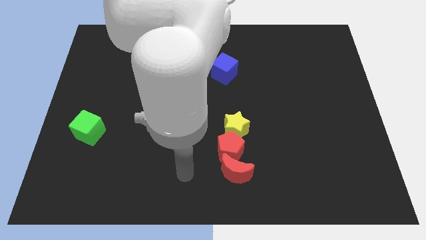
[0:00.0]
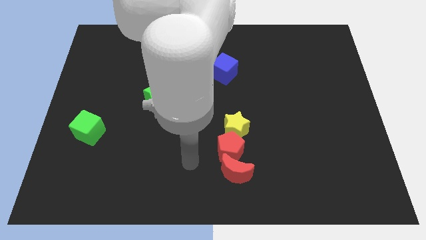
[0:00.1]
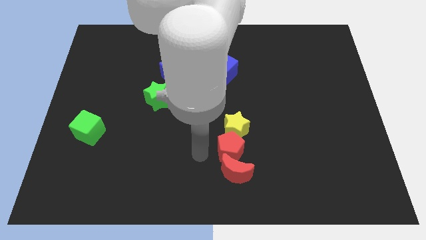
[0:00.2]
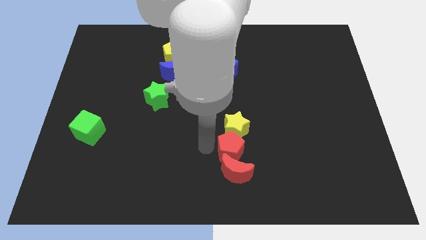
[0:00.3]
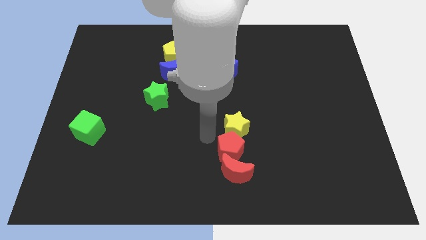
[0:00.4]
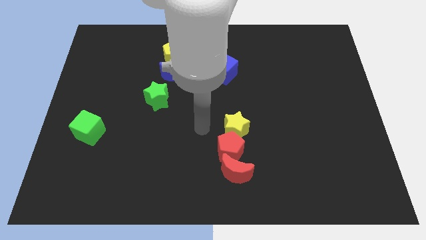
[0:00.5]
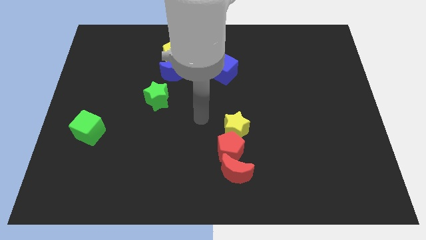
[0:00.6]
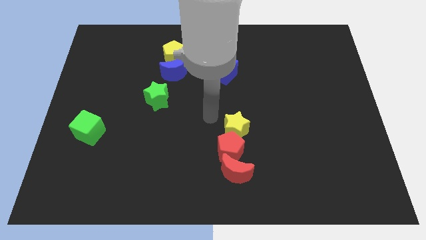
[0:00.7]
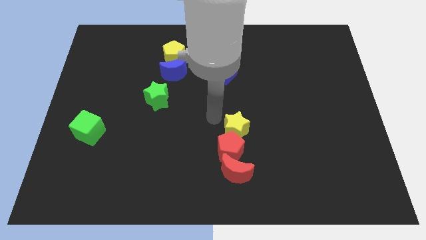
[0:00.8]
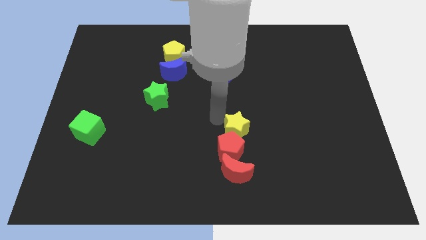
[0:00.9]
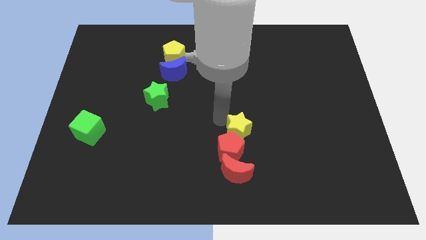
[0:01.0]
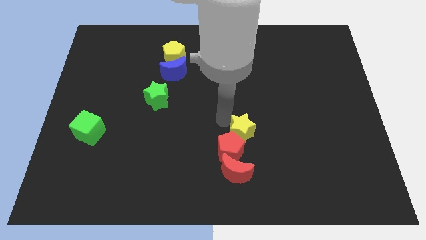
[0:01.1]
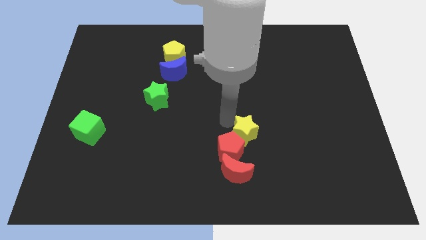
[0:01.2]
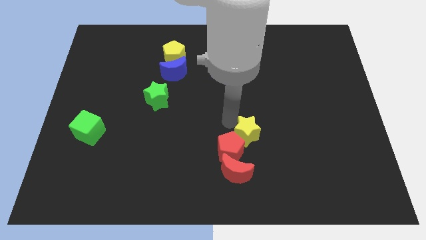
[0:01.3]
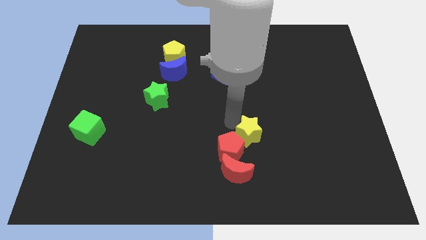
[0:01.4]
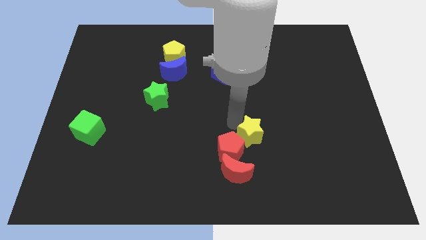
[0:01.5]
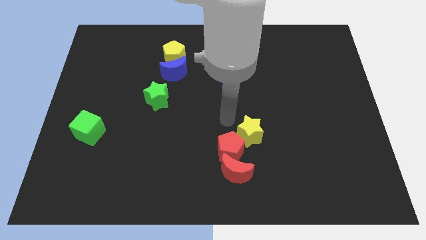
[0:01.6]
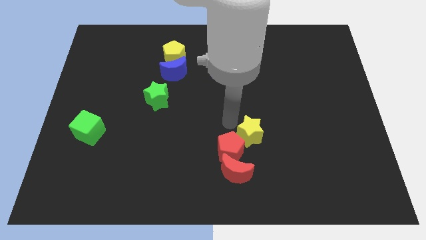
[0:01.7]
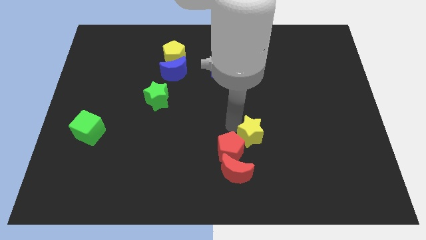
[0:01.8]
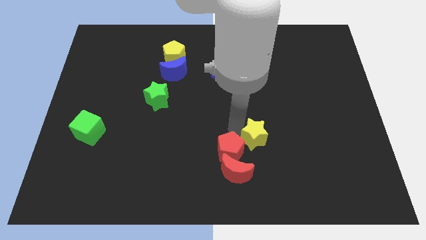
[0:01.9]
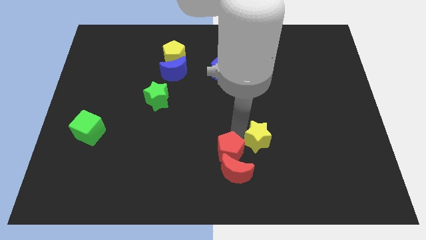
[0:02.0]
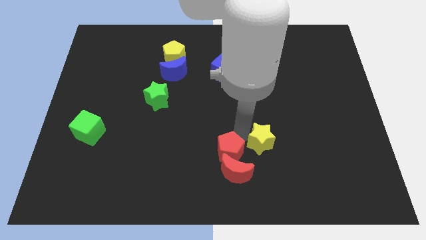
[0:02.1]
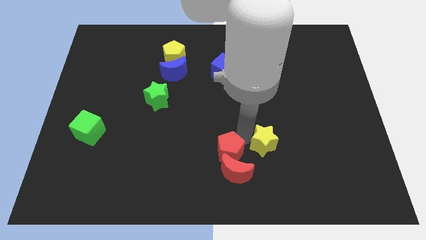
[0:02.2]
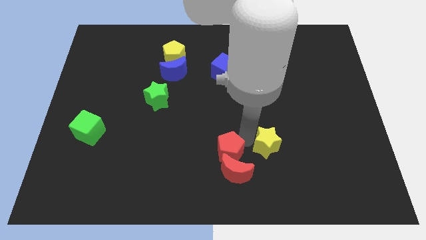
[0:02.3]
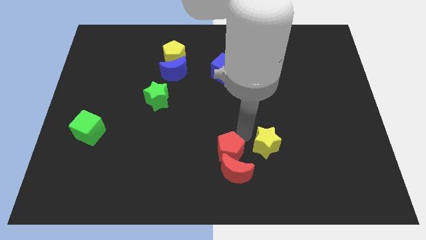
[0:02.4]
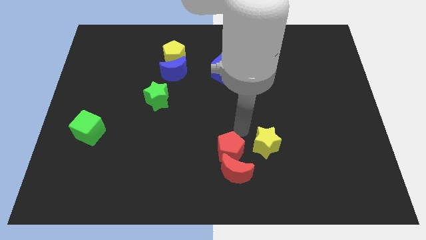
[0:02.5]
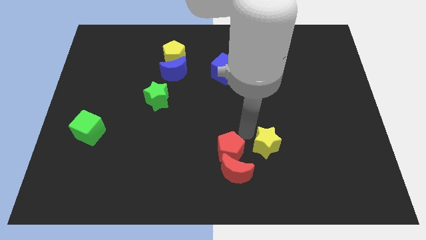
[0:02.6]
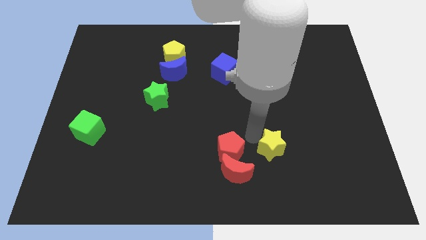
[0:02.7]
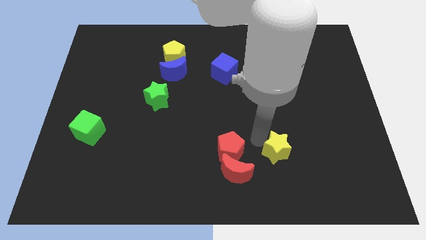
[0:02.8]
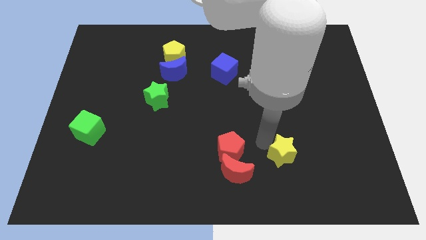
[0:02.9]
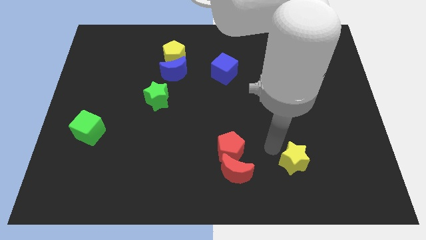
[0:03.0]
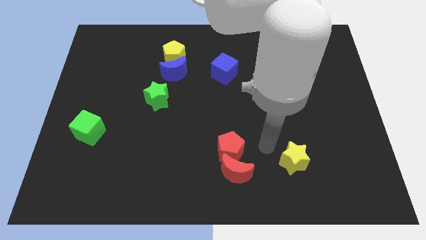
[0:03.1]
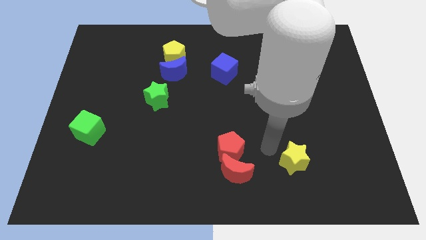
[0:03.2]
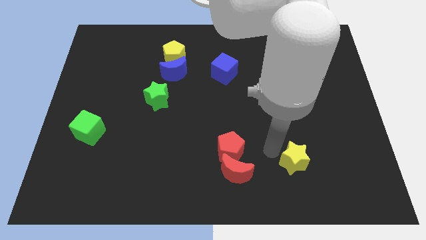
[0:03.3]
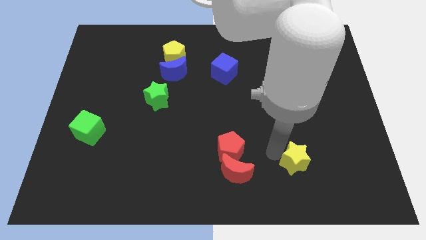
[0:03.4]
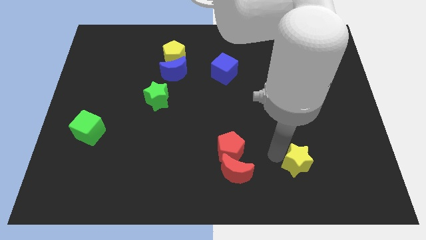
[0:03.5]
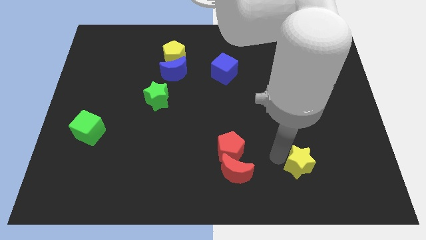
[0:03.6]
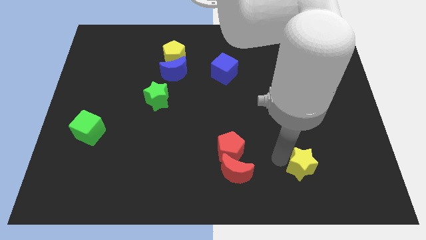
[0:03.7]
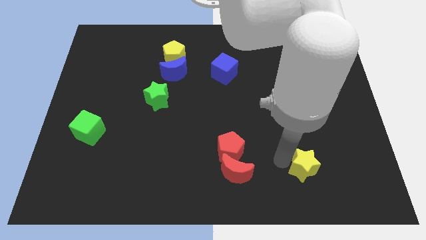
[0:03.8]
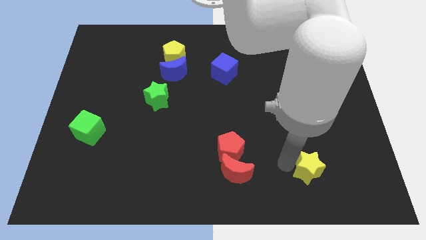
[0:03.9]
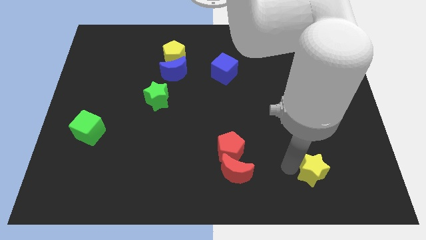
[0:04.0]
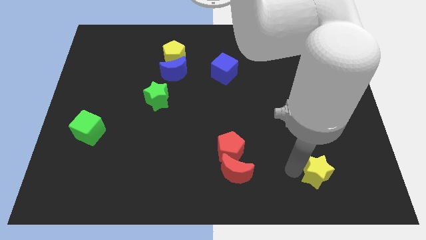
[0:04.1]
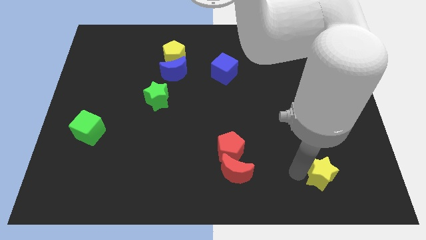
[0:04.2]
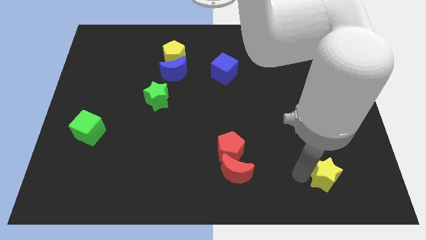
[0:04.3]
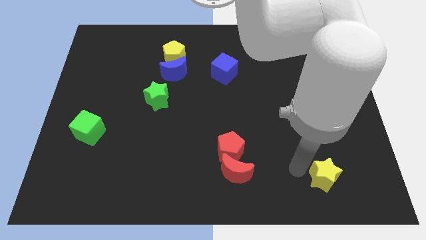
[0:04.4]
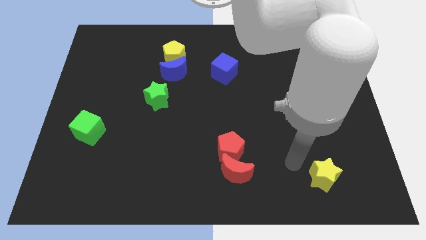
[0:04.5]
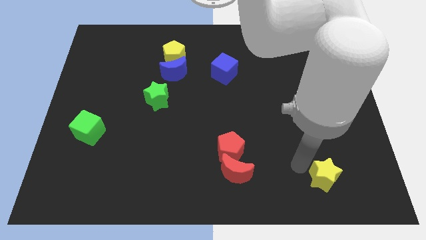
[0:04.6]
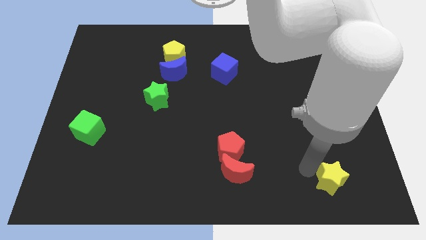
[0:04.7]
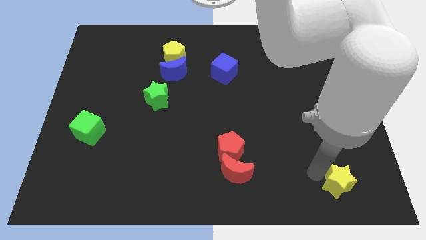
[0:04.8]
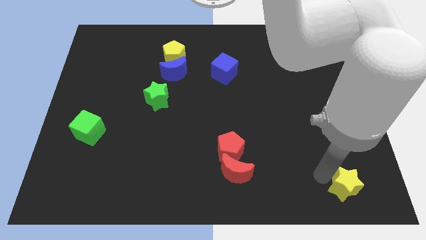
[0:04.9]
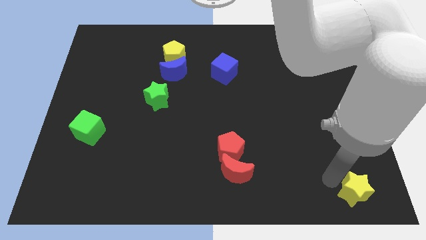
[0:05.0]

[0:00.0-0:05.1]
push the yellow star to the bottom right corner

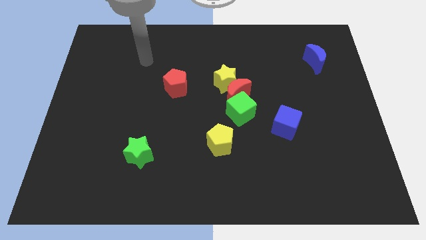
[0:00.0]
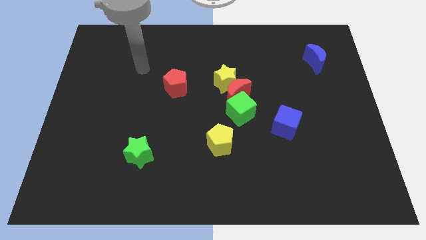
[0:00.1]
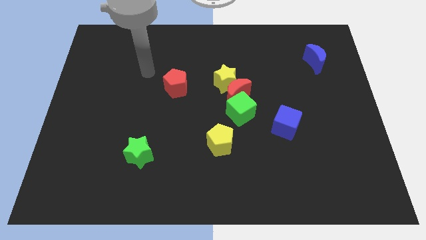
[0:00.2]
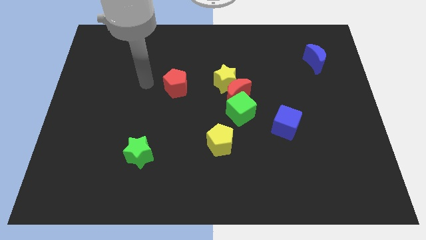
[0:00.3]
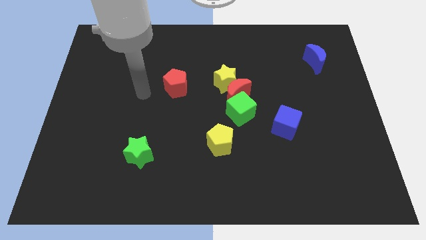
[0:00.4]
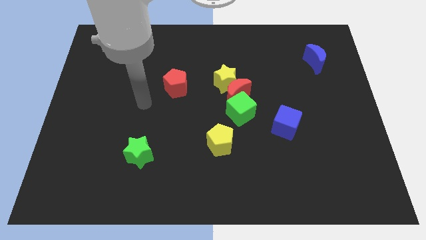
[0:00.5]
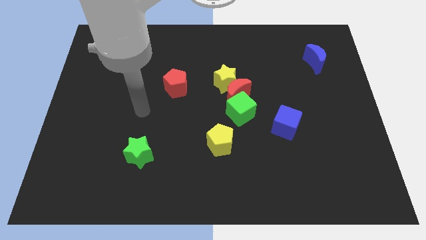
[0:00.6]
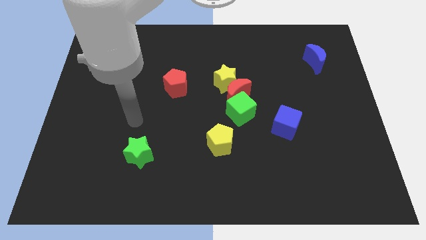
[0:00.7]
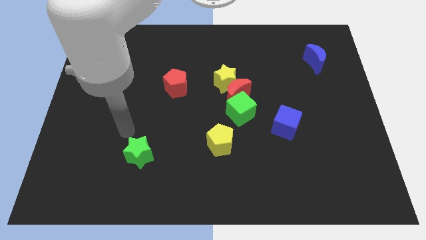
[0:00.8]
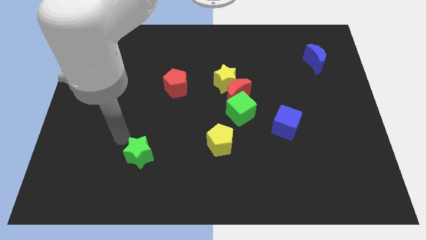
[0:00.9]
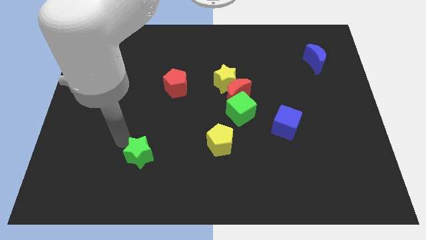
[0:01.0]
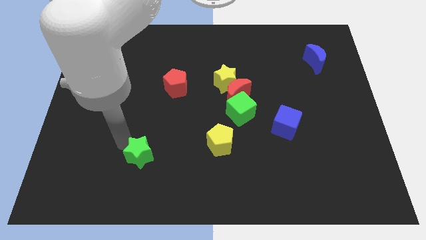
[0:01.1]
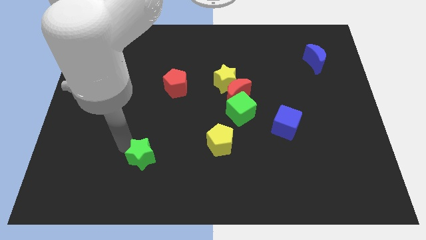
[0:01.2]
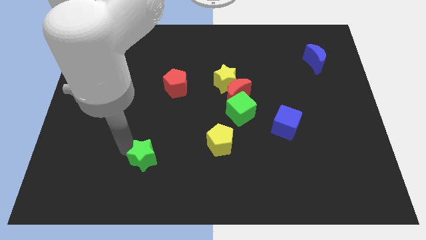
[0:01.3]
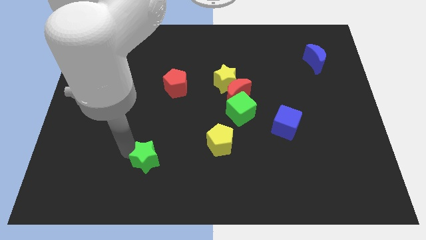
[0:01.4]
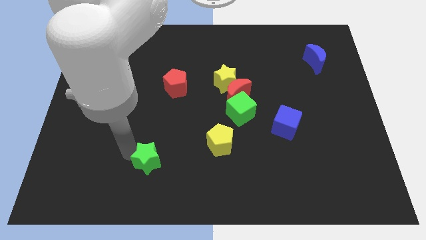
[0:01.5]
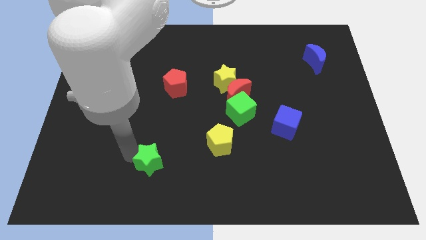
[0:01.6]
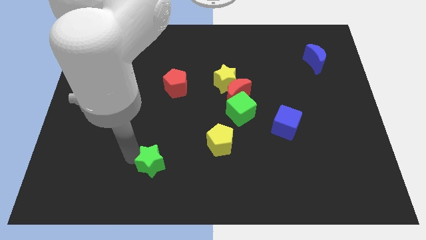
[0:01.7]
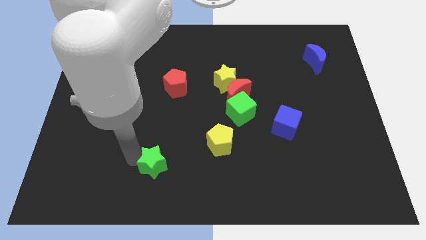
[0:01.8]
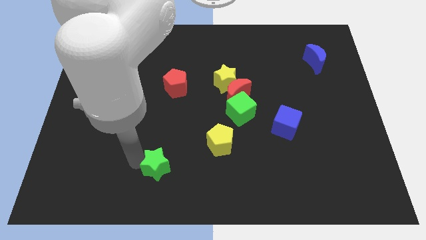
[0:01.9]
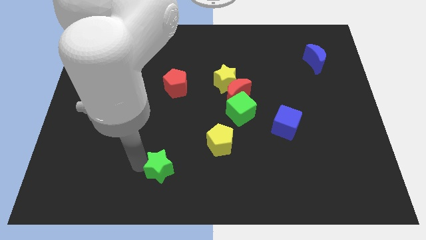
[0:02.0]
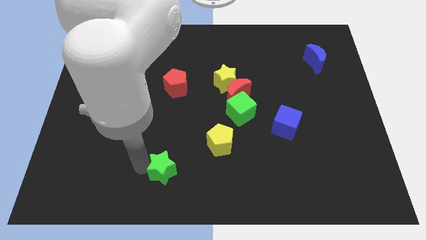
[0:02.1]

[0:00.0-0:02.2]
slide the green star to the bottom side
